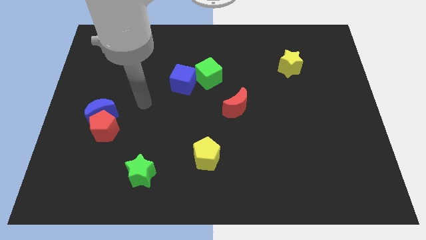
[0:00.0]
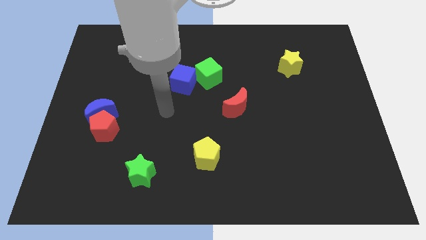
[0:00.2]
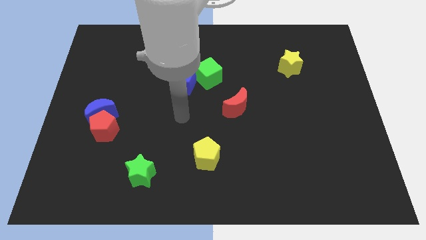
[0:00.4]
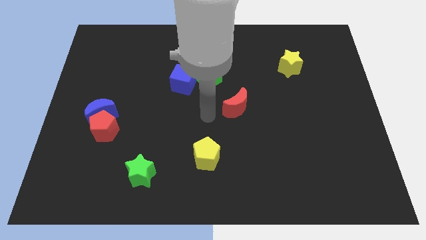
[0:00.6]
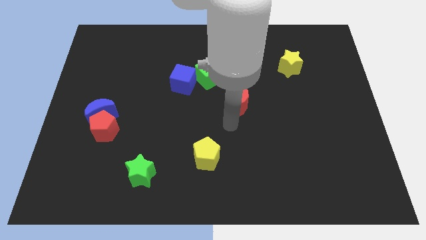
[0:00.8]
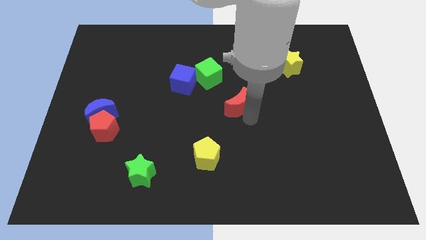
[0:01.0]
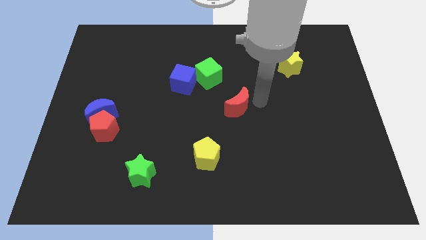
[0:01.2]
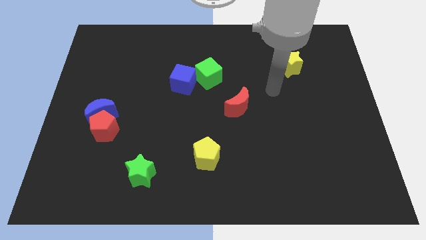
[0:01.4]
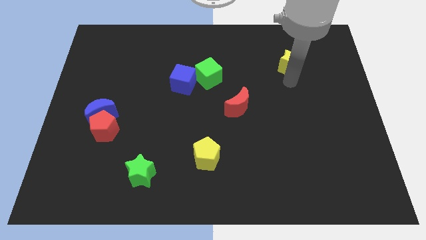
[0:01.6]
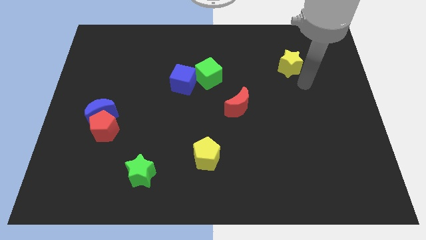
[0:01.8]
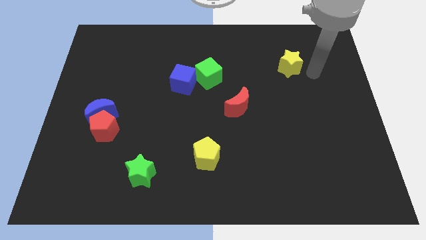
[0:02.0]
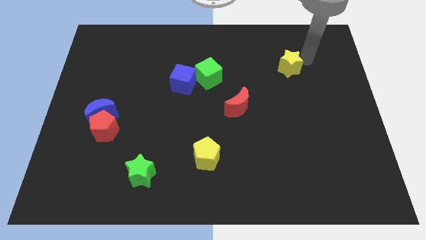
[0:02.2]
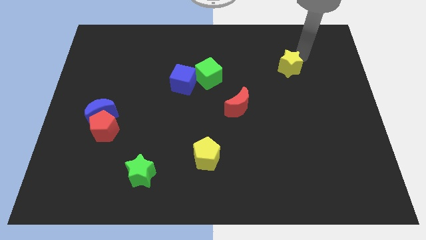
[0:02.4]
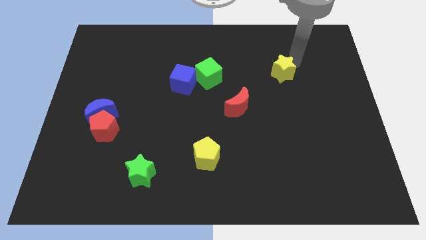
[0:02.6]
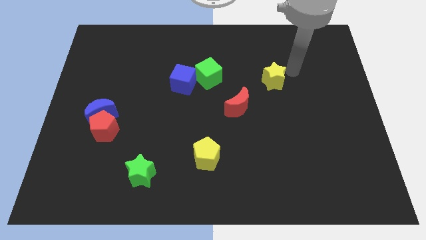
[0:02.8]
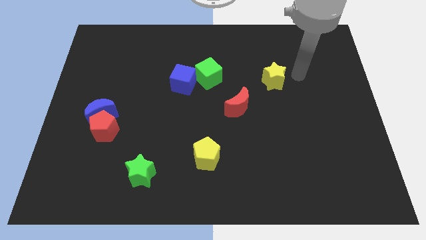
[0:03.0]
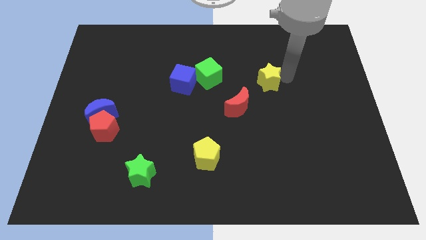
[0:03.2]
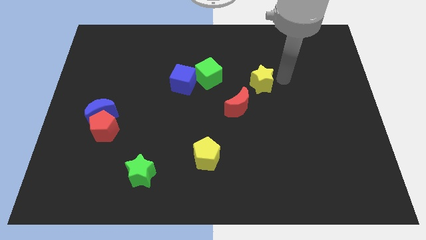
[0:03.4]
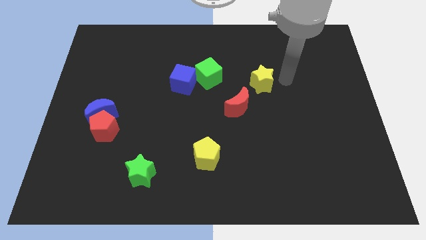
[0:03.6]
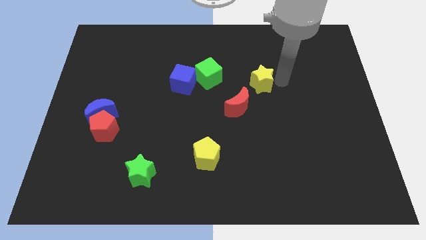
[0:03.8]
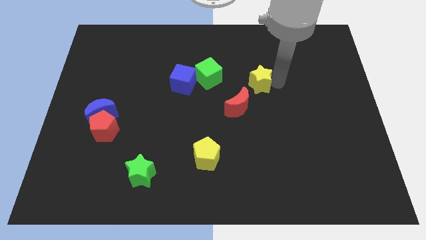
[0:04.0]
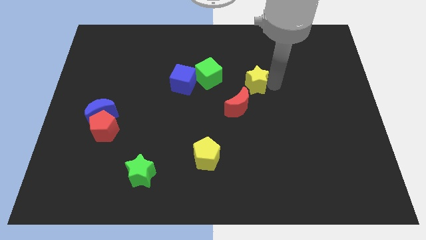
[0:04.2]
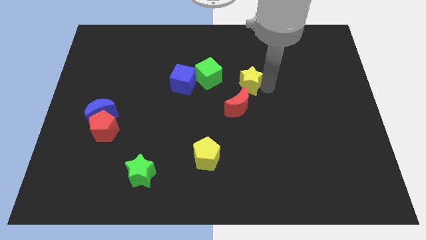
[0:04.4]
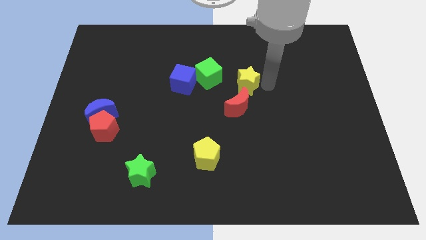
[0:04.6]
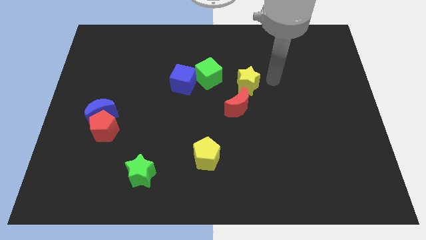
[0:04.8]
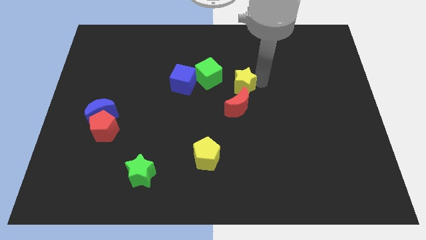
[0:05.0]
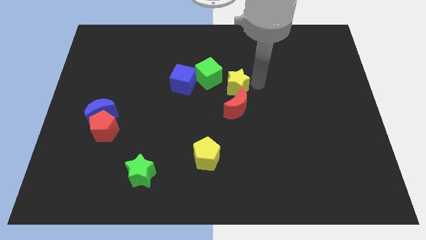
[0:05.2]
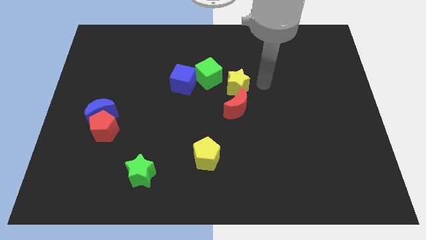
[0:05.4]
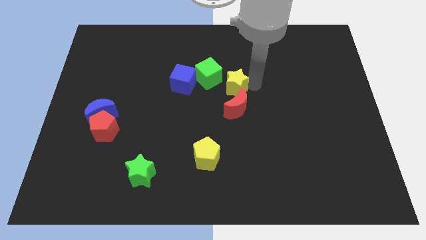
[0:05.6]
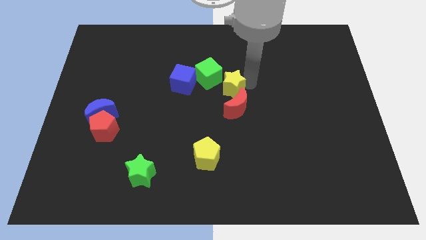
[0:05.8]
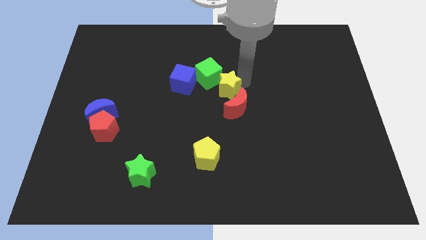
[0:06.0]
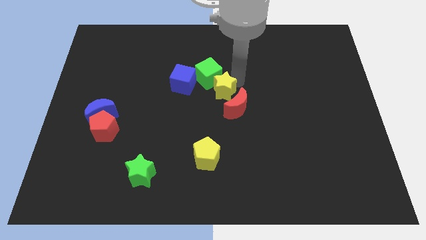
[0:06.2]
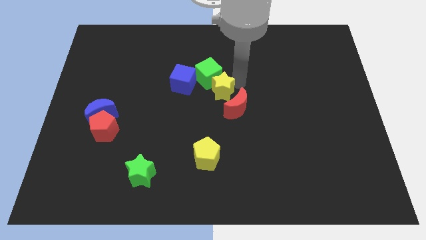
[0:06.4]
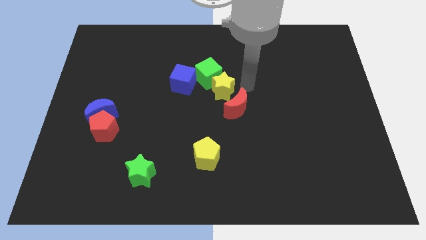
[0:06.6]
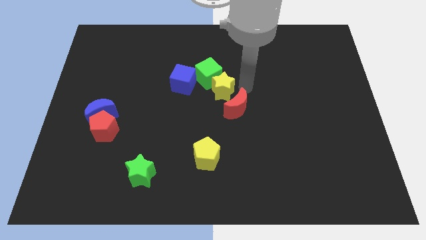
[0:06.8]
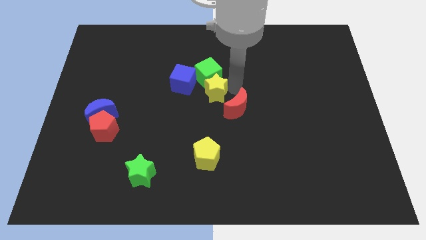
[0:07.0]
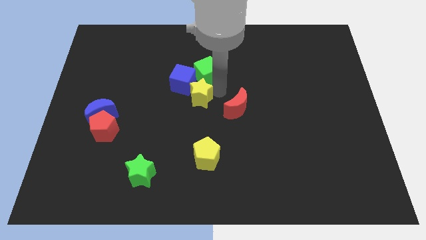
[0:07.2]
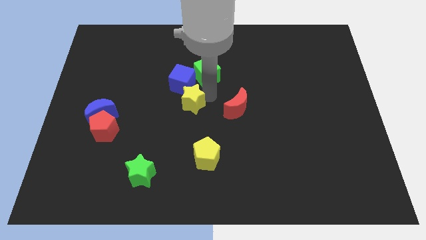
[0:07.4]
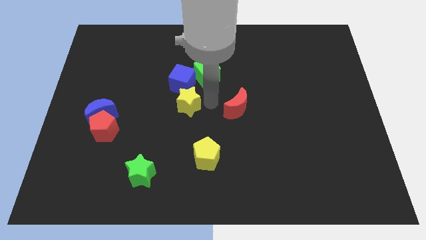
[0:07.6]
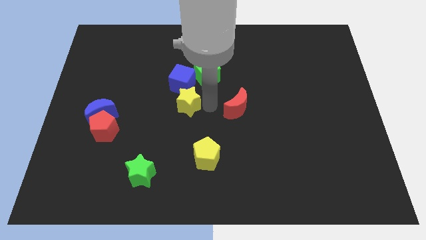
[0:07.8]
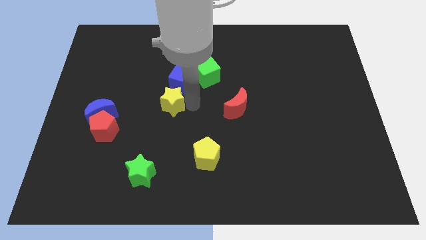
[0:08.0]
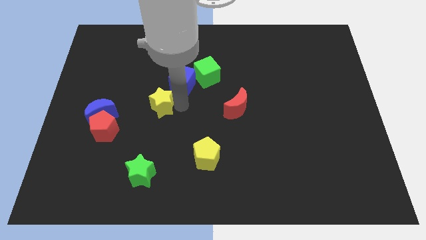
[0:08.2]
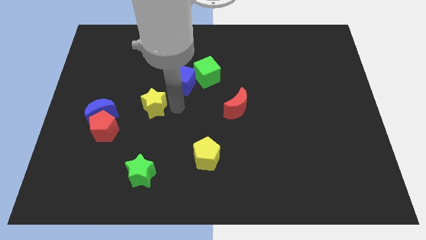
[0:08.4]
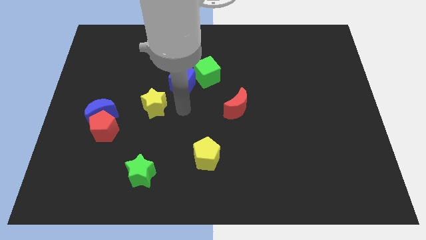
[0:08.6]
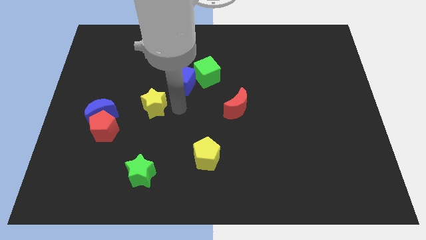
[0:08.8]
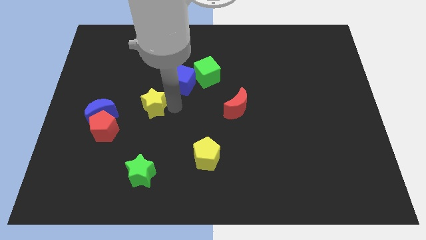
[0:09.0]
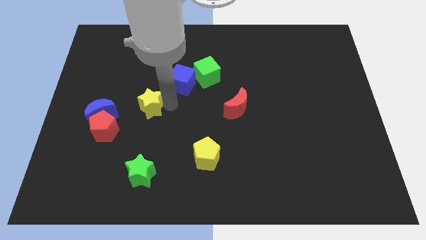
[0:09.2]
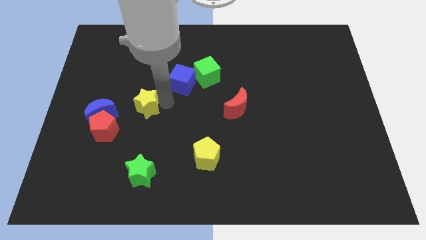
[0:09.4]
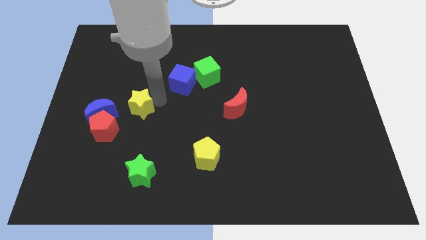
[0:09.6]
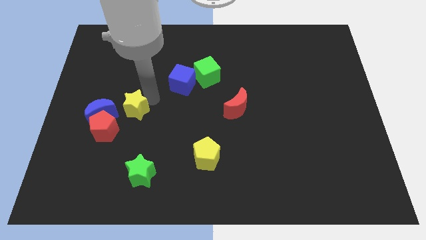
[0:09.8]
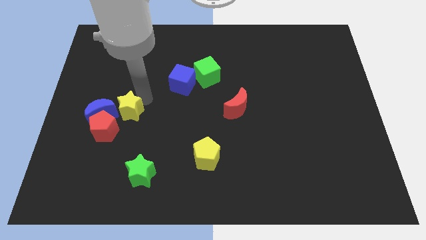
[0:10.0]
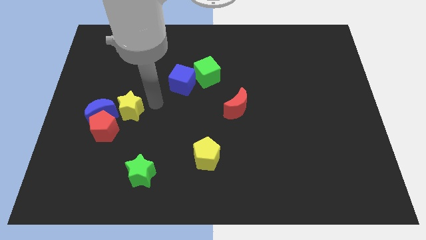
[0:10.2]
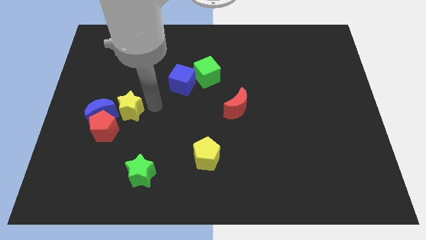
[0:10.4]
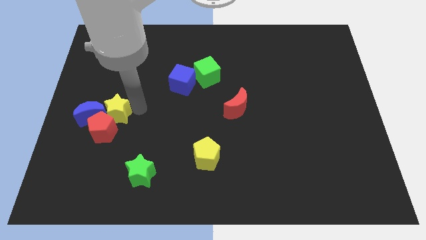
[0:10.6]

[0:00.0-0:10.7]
put the yellow star next to the blue moon
